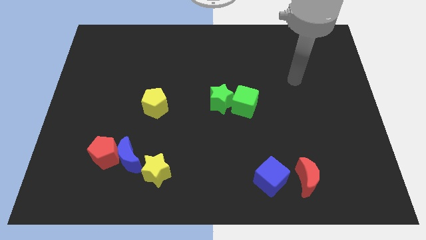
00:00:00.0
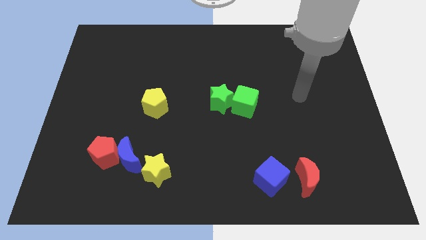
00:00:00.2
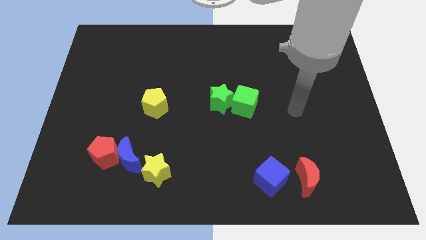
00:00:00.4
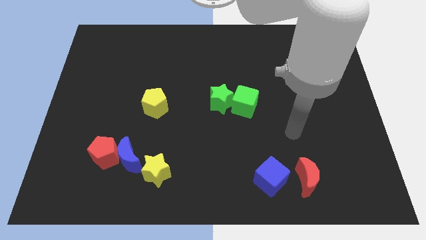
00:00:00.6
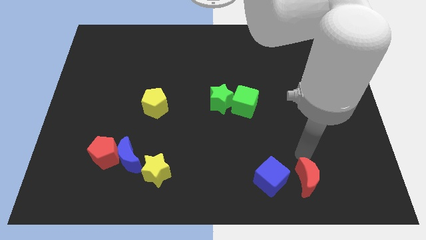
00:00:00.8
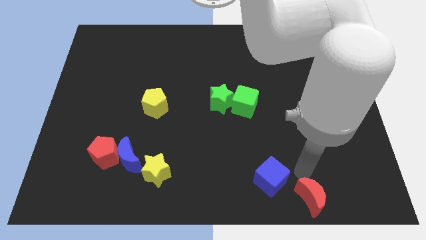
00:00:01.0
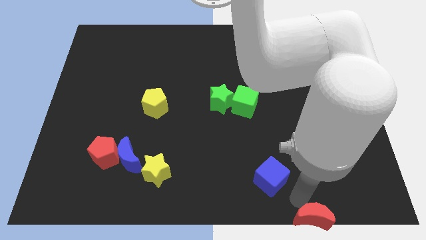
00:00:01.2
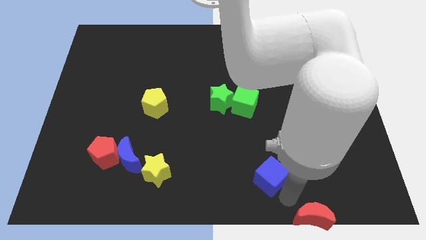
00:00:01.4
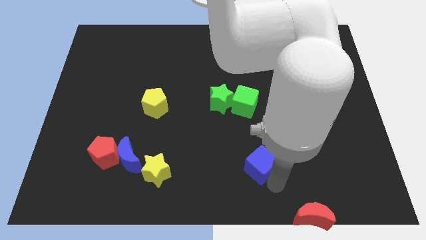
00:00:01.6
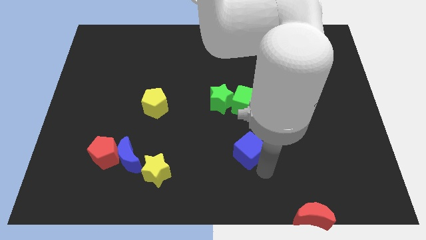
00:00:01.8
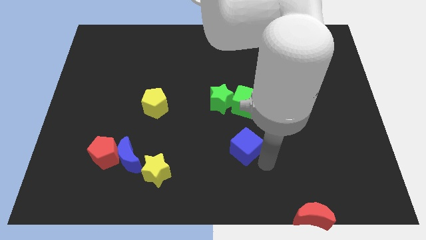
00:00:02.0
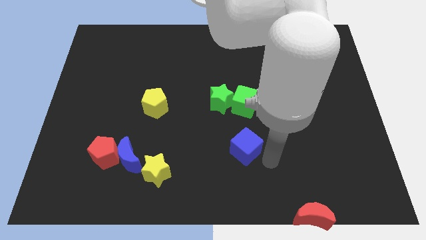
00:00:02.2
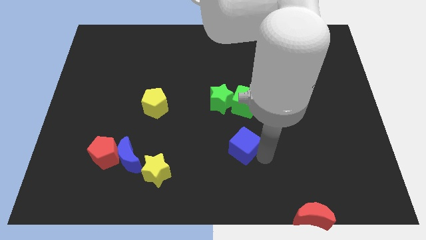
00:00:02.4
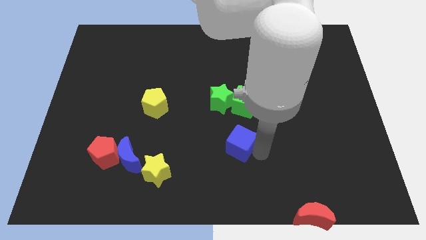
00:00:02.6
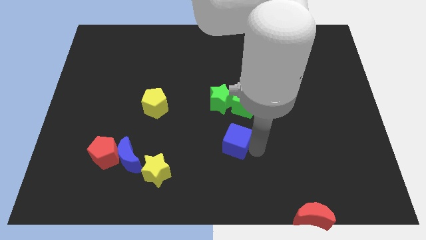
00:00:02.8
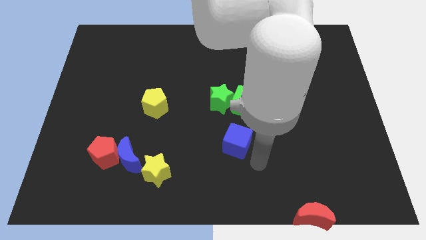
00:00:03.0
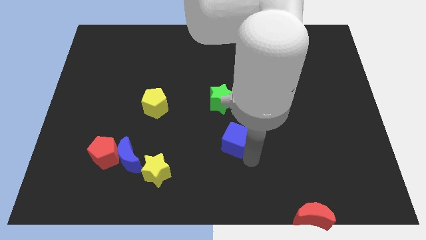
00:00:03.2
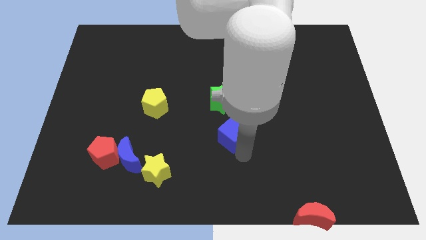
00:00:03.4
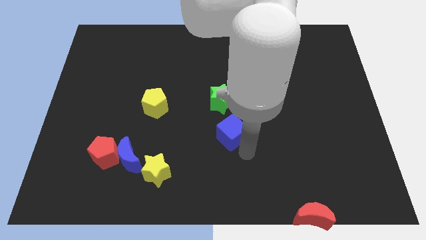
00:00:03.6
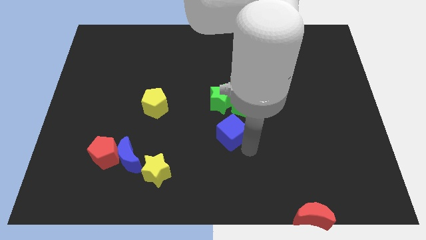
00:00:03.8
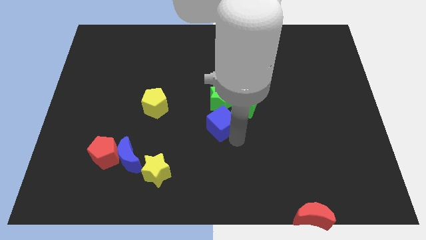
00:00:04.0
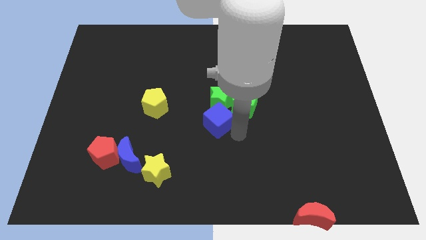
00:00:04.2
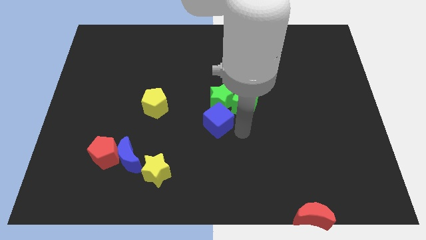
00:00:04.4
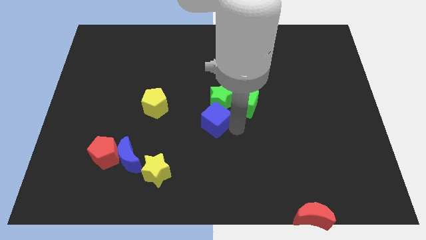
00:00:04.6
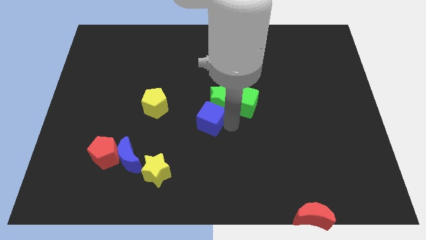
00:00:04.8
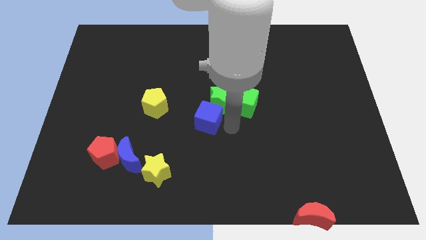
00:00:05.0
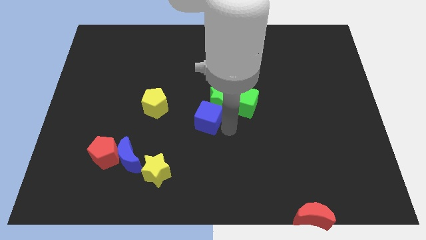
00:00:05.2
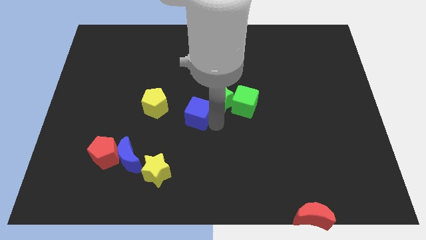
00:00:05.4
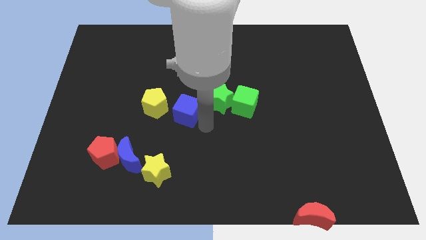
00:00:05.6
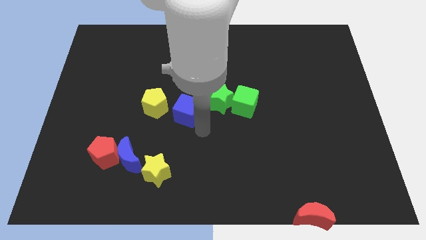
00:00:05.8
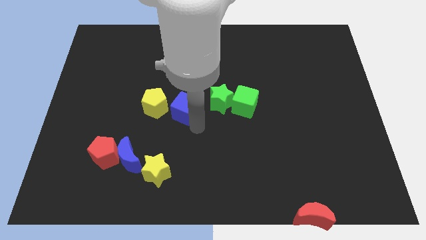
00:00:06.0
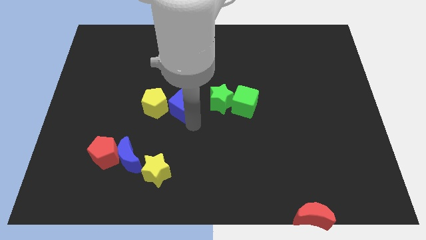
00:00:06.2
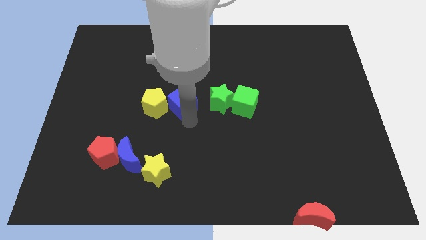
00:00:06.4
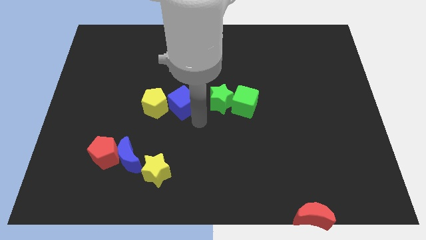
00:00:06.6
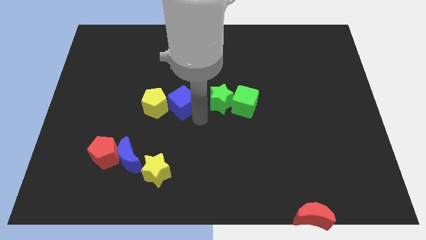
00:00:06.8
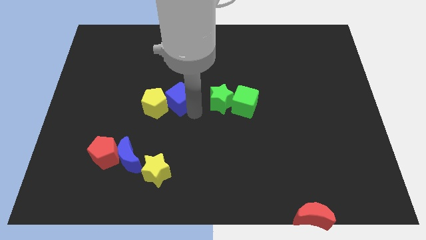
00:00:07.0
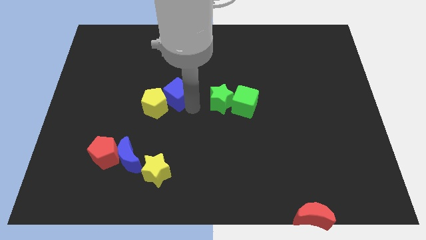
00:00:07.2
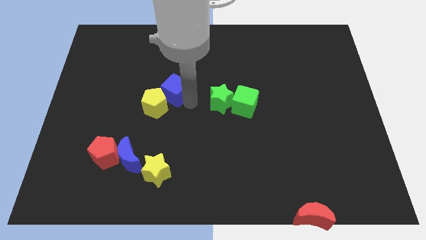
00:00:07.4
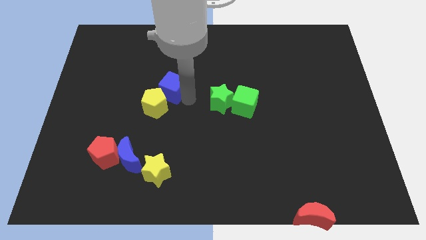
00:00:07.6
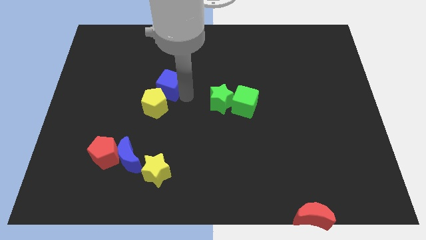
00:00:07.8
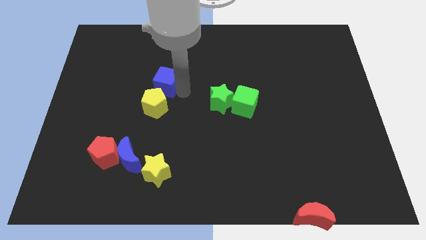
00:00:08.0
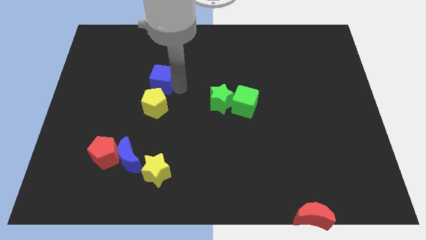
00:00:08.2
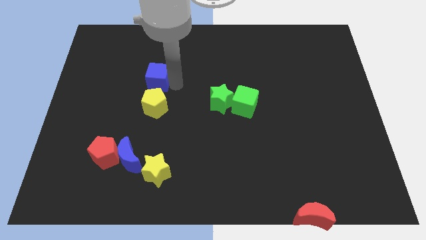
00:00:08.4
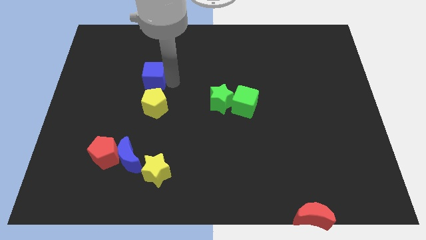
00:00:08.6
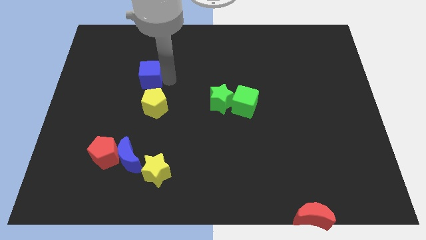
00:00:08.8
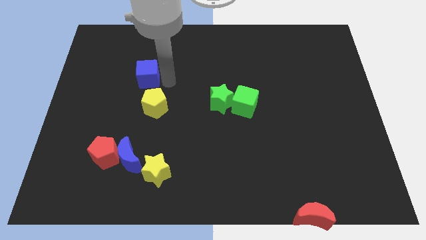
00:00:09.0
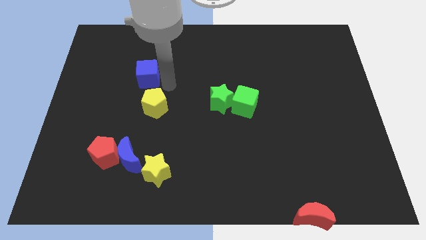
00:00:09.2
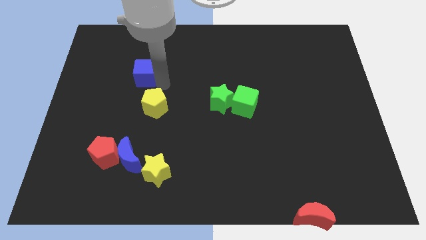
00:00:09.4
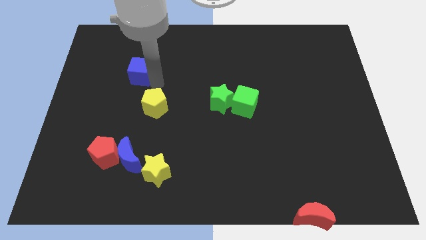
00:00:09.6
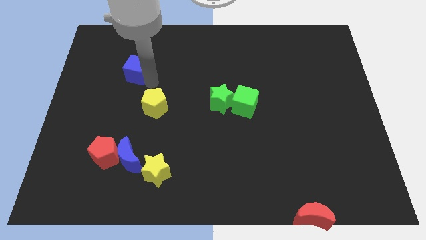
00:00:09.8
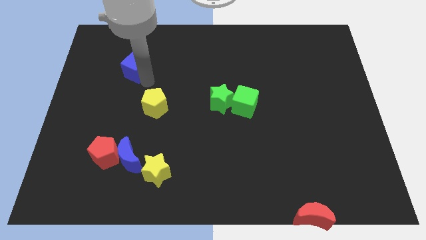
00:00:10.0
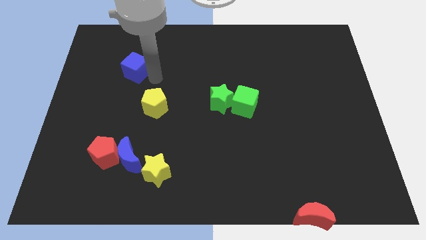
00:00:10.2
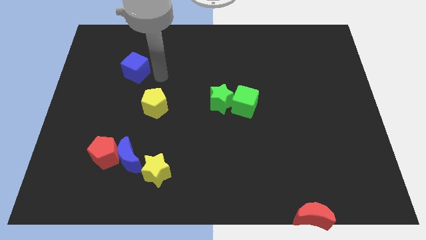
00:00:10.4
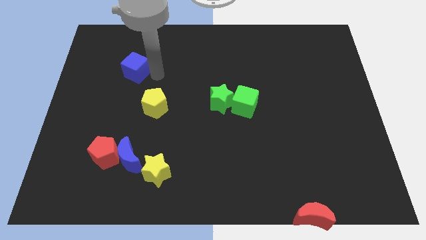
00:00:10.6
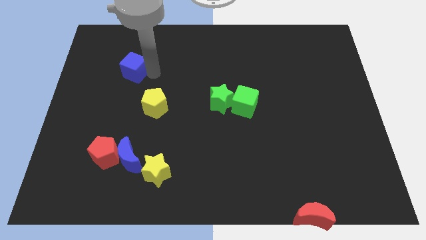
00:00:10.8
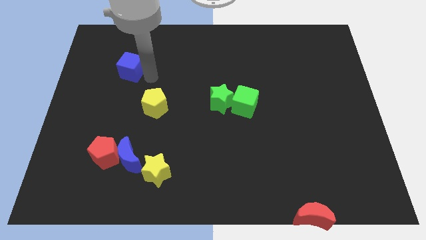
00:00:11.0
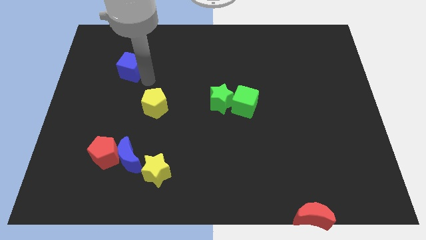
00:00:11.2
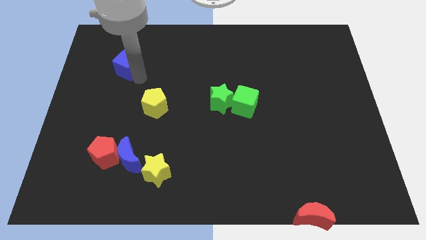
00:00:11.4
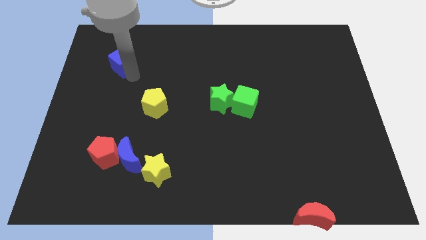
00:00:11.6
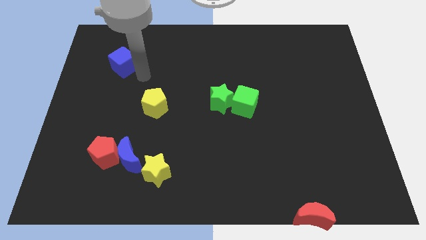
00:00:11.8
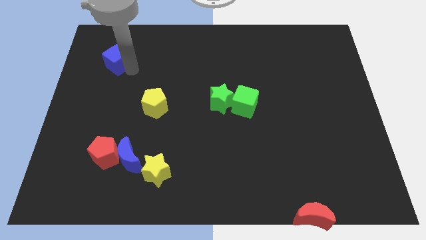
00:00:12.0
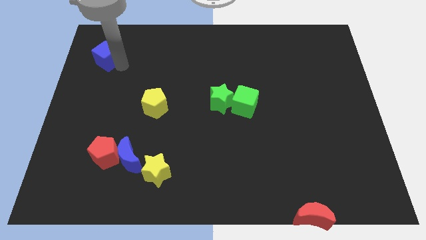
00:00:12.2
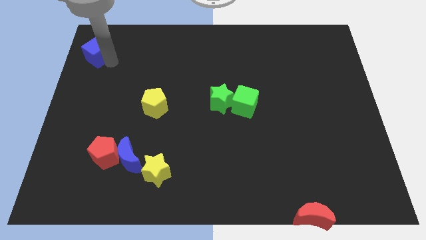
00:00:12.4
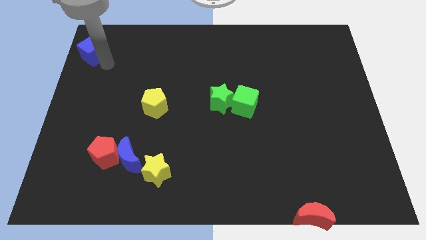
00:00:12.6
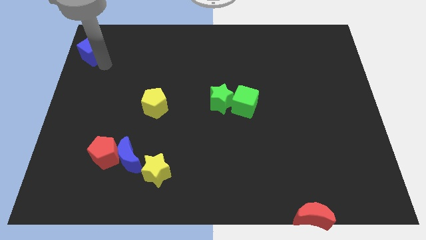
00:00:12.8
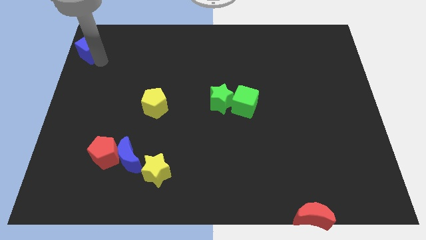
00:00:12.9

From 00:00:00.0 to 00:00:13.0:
slide the blue cube to the top left

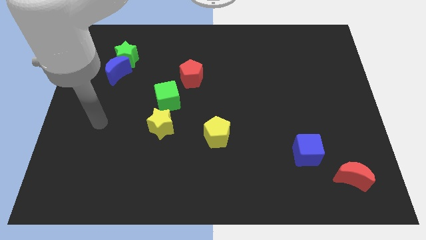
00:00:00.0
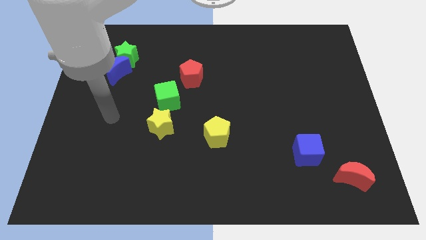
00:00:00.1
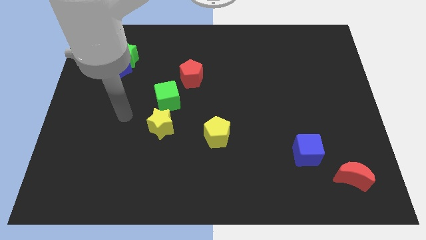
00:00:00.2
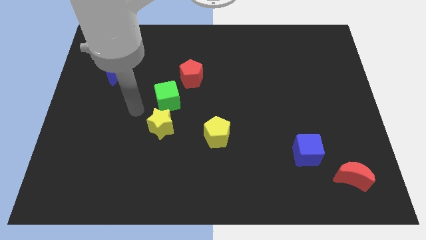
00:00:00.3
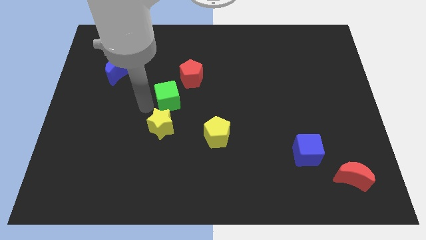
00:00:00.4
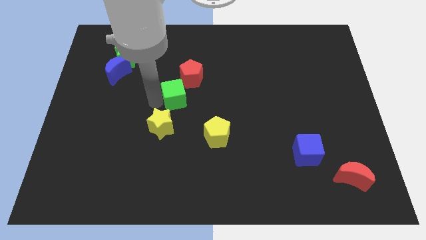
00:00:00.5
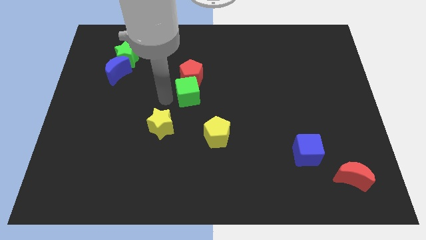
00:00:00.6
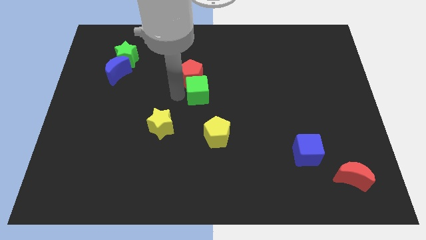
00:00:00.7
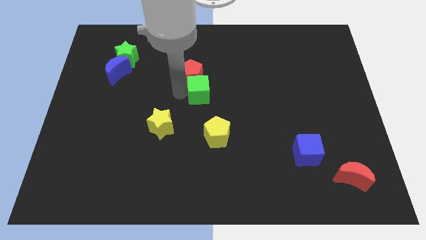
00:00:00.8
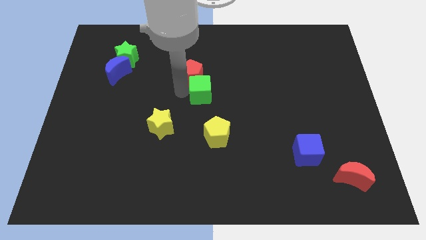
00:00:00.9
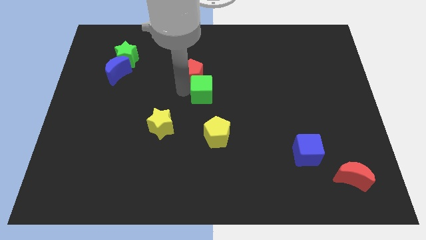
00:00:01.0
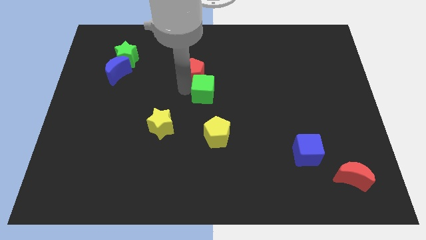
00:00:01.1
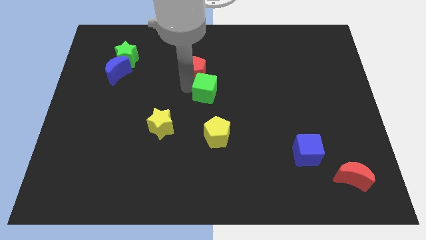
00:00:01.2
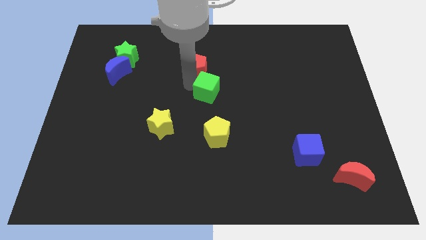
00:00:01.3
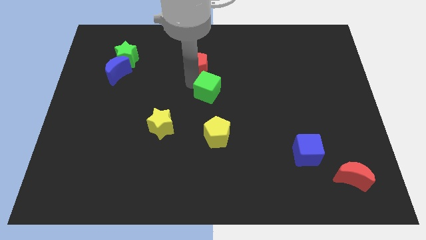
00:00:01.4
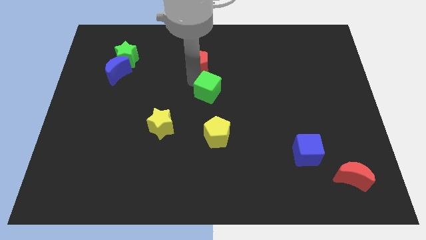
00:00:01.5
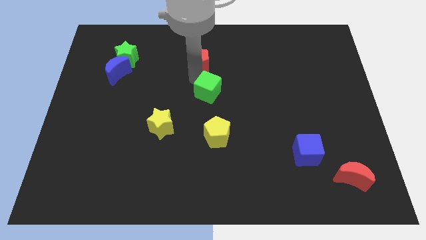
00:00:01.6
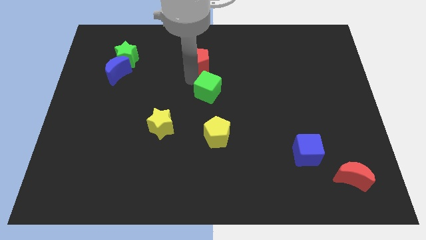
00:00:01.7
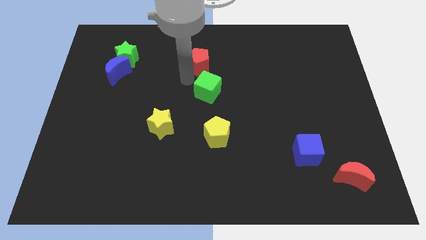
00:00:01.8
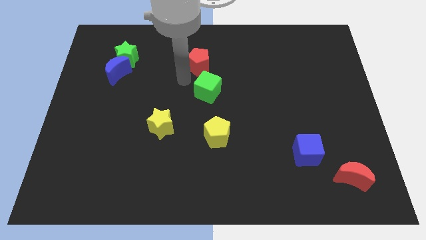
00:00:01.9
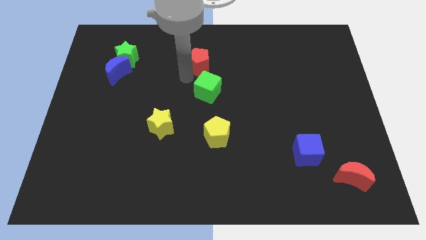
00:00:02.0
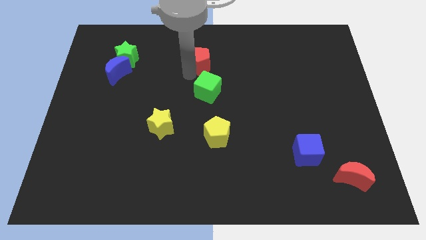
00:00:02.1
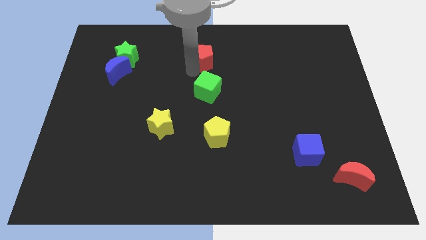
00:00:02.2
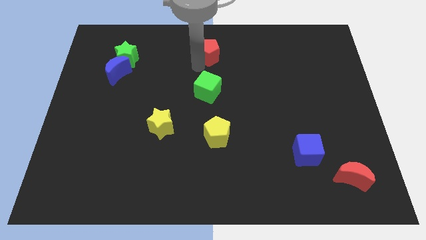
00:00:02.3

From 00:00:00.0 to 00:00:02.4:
move the red pentagon to the top
